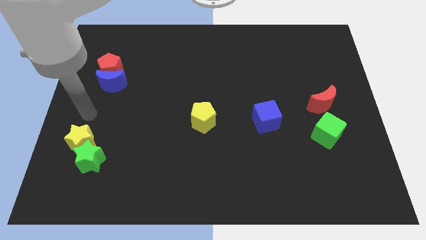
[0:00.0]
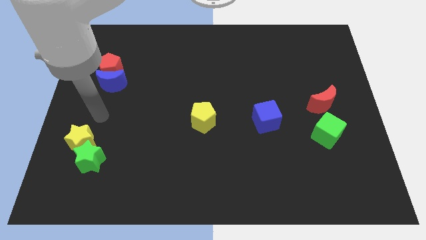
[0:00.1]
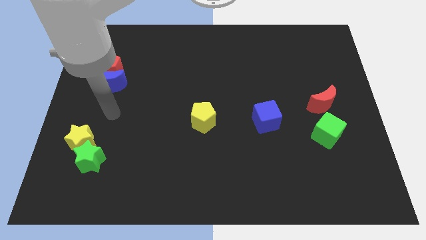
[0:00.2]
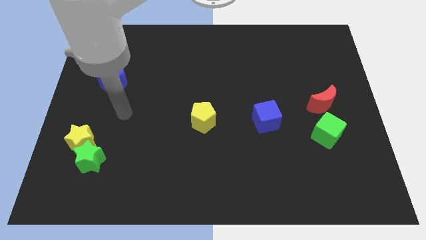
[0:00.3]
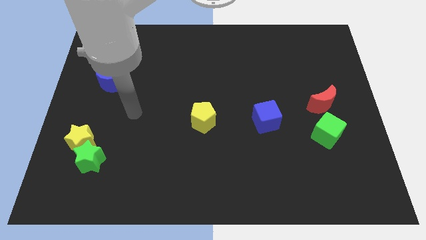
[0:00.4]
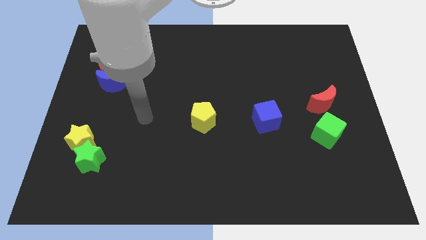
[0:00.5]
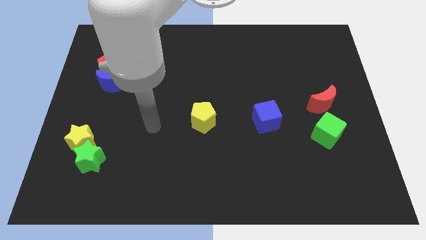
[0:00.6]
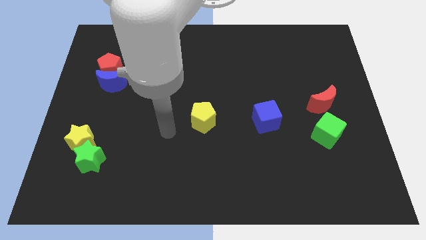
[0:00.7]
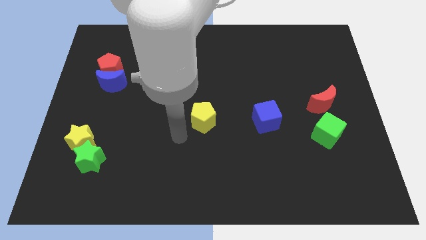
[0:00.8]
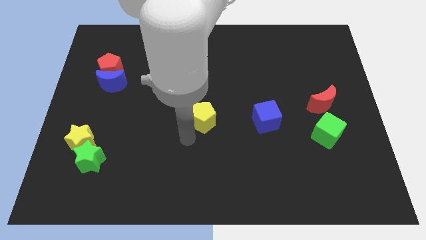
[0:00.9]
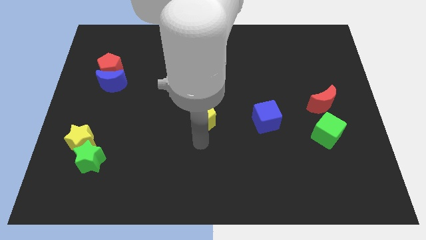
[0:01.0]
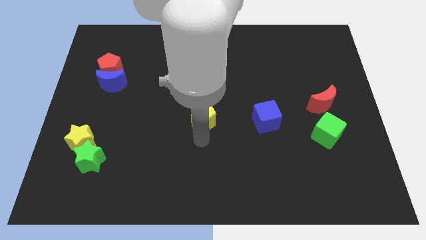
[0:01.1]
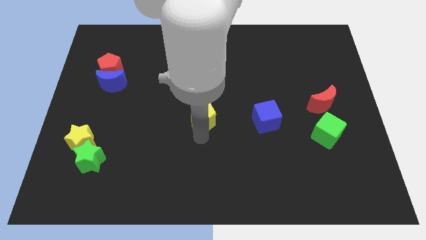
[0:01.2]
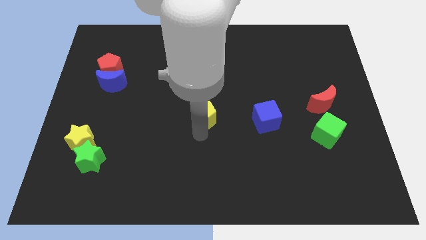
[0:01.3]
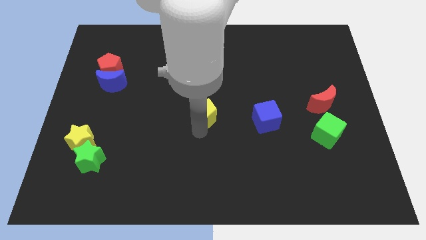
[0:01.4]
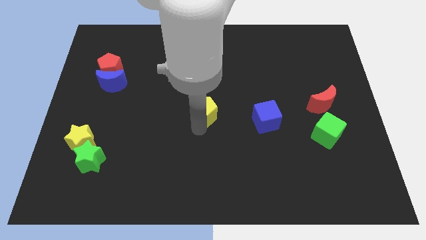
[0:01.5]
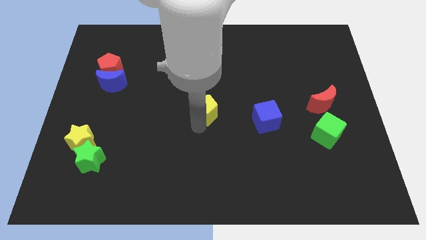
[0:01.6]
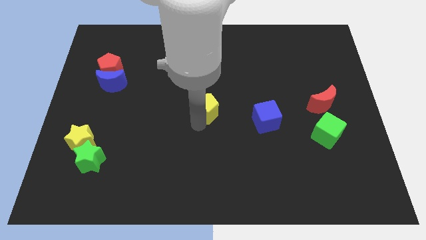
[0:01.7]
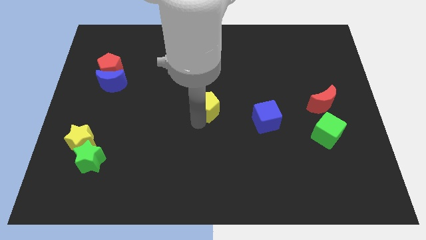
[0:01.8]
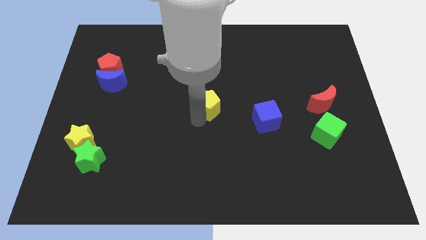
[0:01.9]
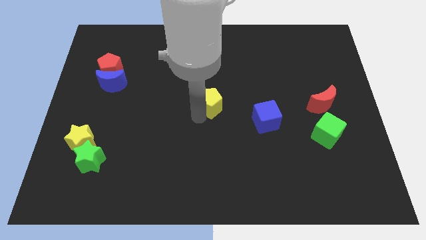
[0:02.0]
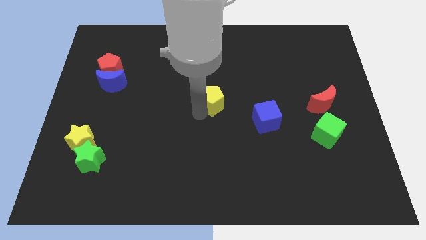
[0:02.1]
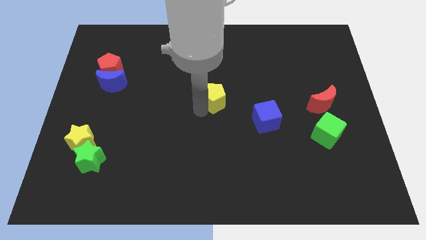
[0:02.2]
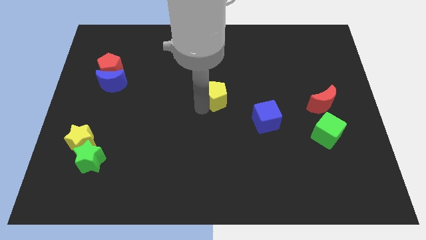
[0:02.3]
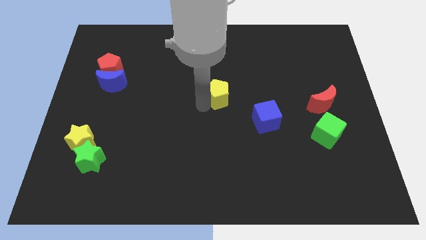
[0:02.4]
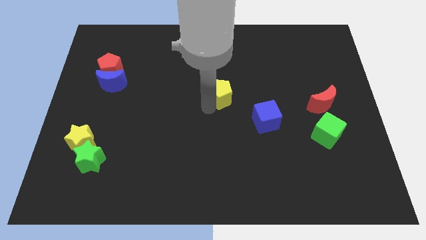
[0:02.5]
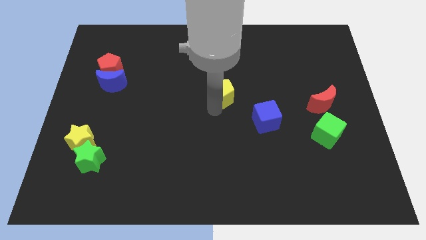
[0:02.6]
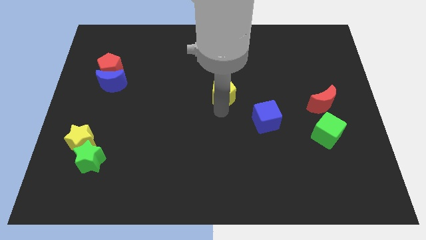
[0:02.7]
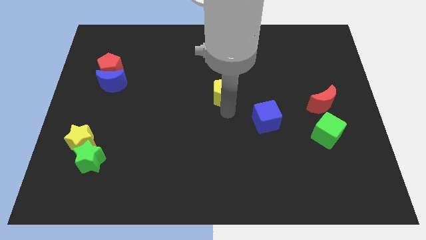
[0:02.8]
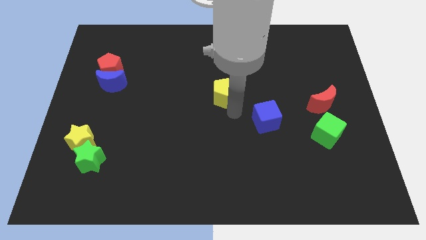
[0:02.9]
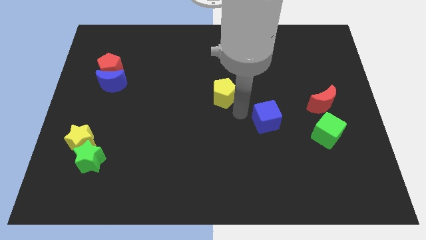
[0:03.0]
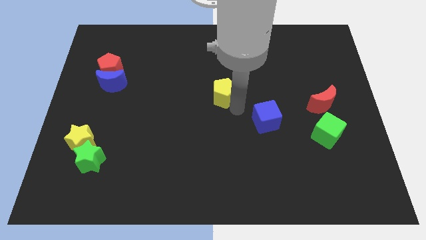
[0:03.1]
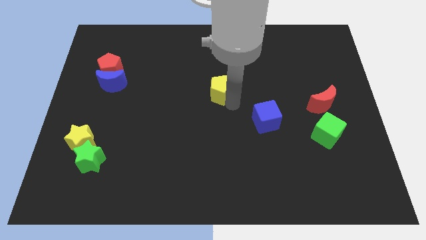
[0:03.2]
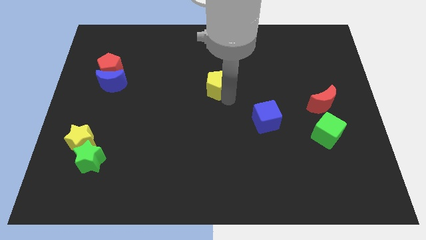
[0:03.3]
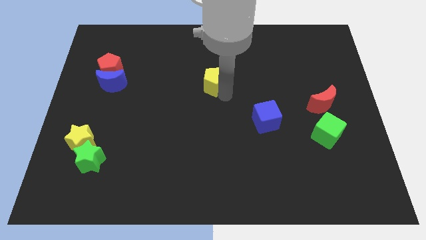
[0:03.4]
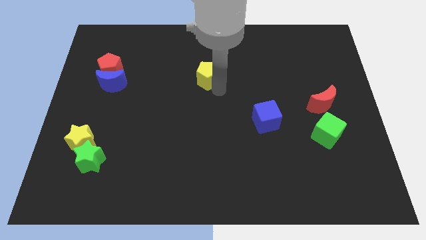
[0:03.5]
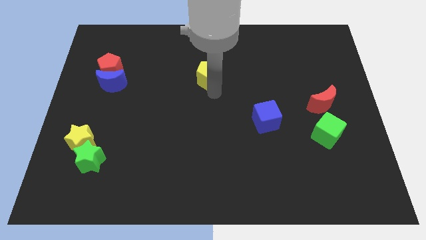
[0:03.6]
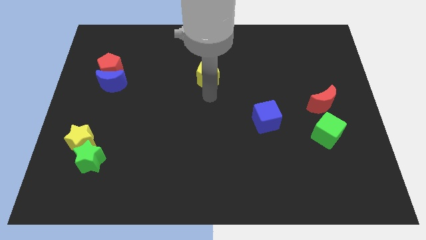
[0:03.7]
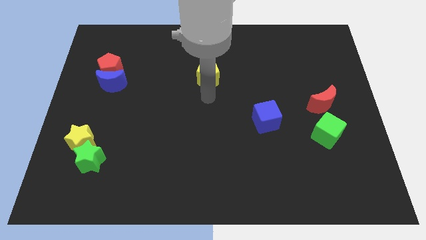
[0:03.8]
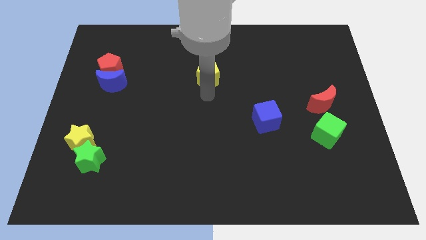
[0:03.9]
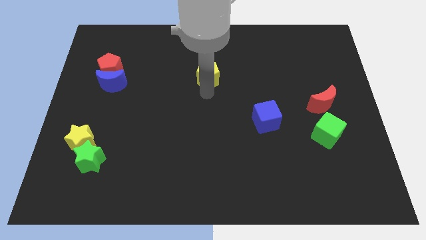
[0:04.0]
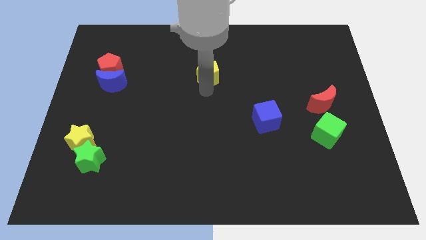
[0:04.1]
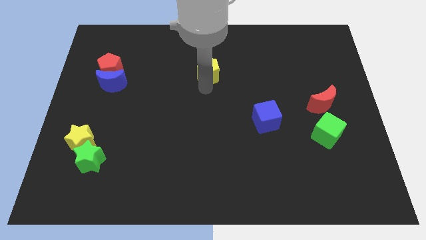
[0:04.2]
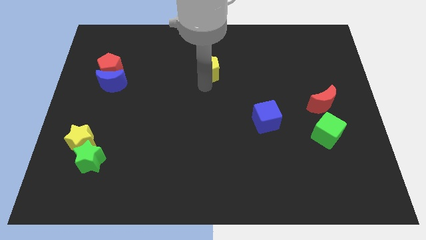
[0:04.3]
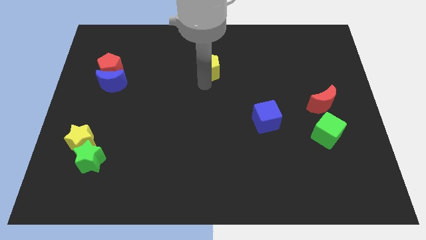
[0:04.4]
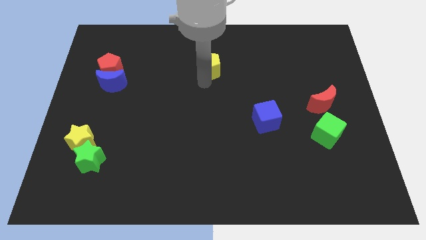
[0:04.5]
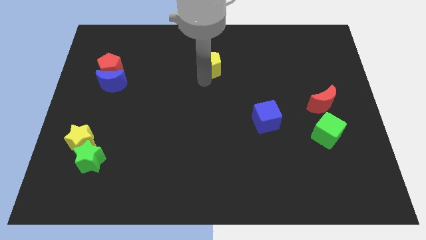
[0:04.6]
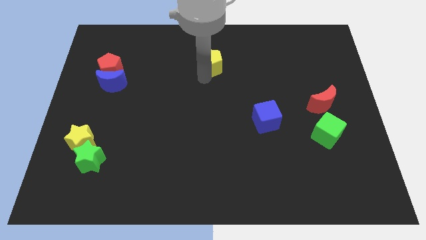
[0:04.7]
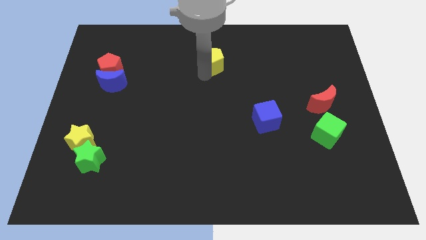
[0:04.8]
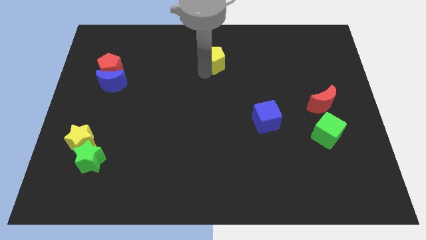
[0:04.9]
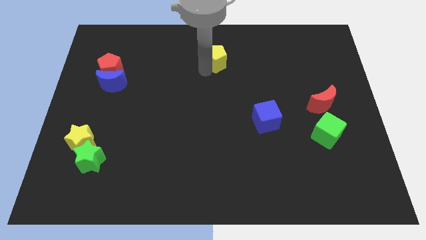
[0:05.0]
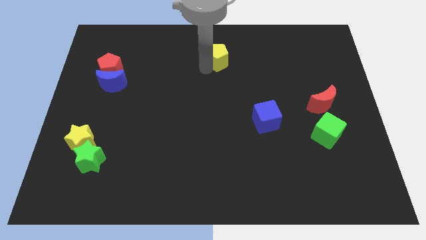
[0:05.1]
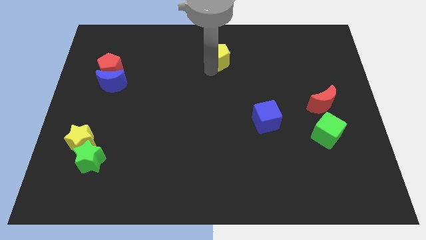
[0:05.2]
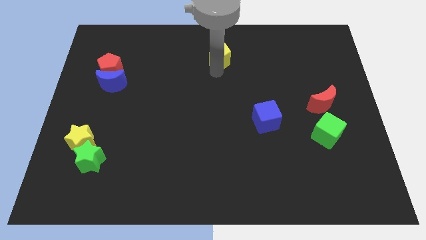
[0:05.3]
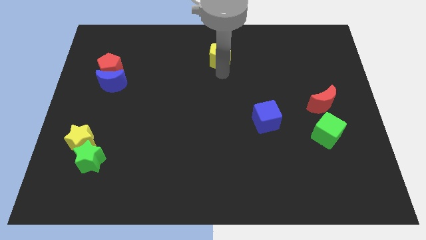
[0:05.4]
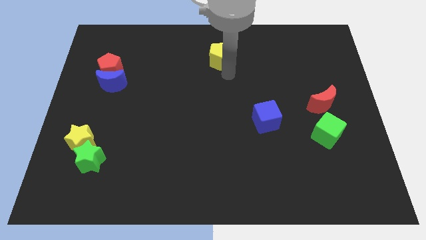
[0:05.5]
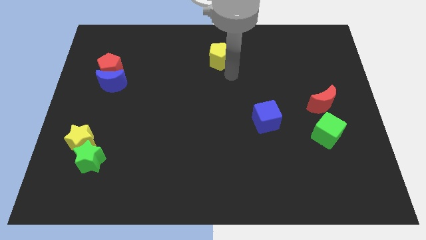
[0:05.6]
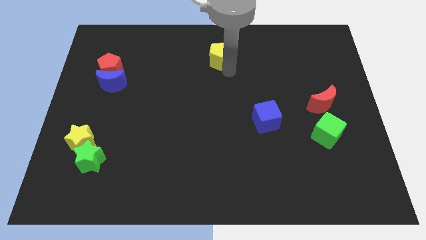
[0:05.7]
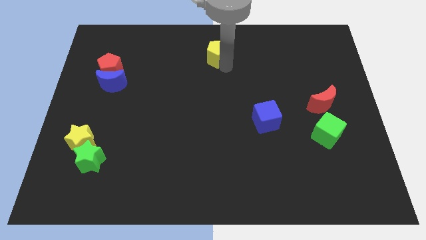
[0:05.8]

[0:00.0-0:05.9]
slide the yellow pentagon to the towards your base

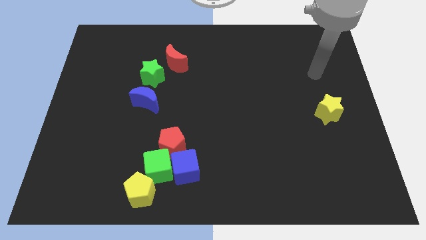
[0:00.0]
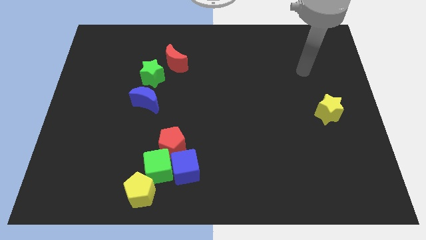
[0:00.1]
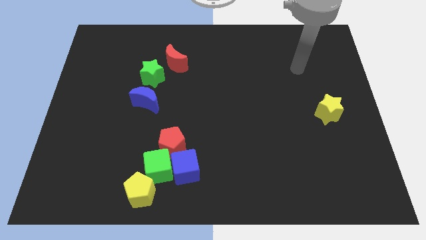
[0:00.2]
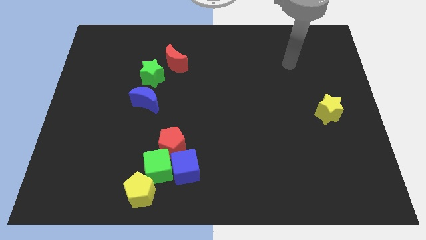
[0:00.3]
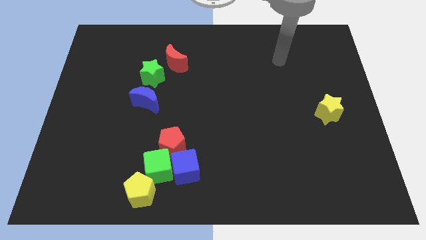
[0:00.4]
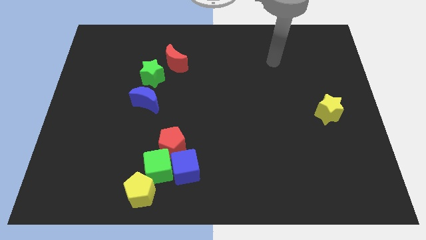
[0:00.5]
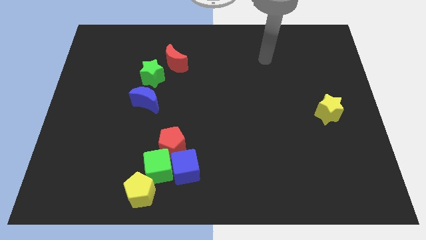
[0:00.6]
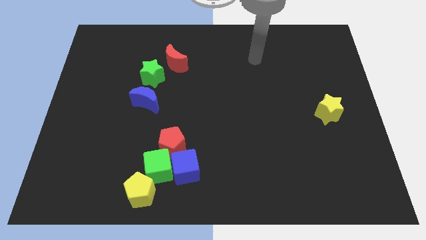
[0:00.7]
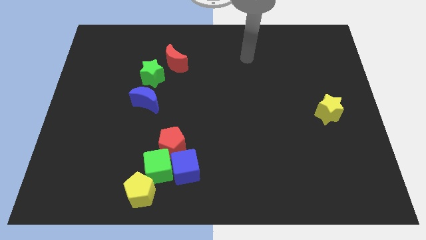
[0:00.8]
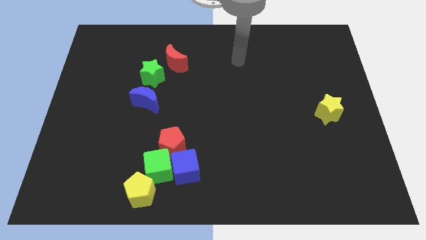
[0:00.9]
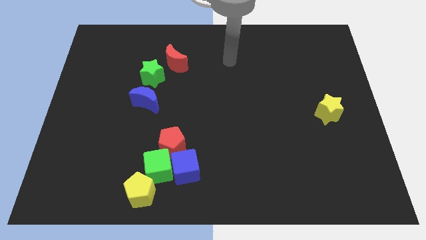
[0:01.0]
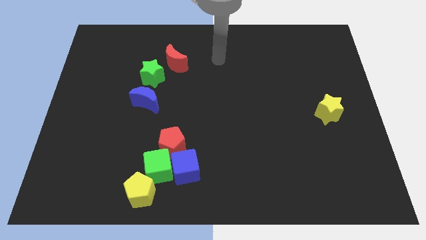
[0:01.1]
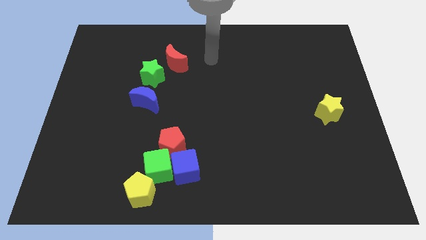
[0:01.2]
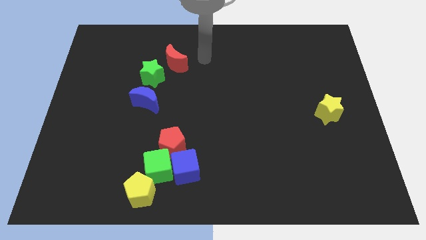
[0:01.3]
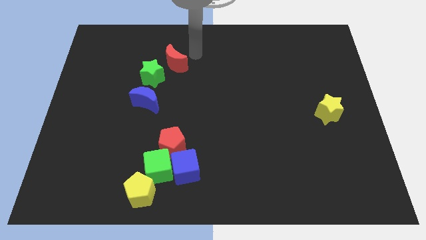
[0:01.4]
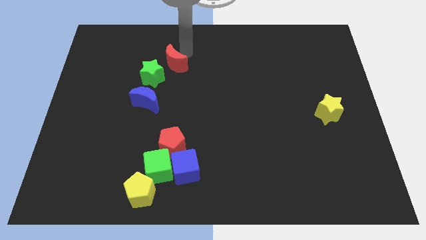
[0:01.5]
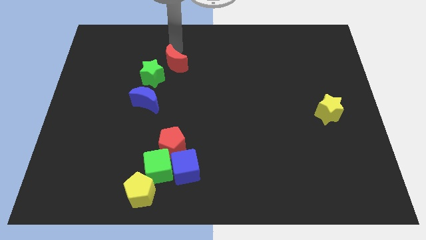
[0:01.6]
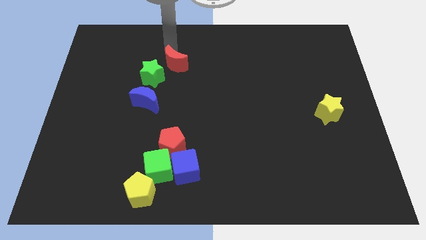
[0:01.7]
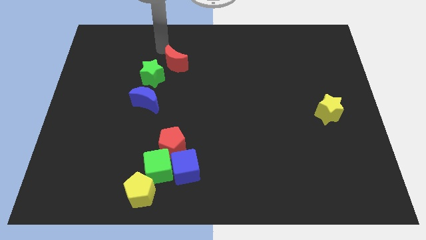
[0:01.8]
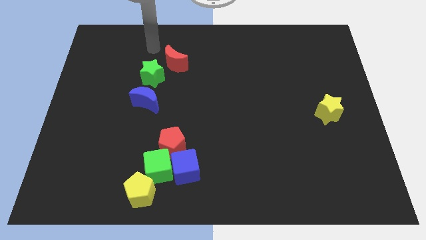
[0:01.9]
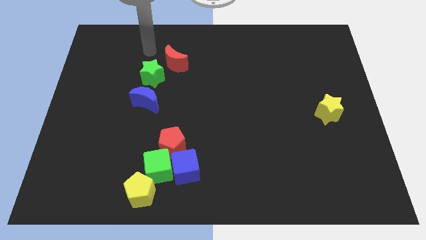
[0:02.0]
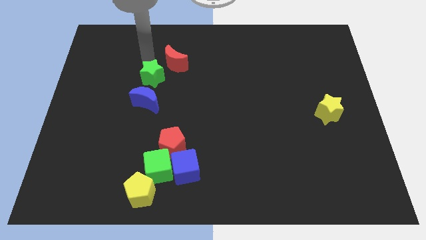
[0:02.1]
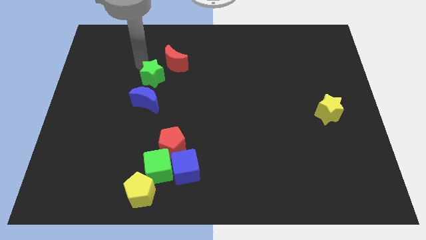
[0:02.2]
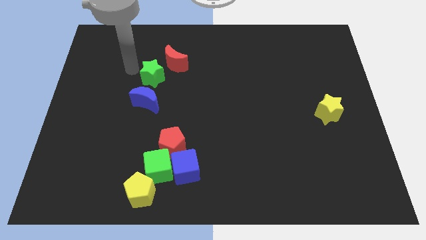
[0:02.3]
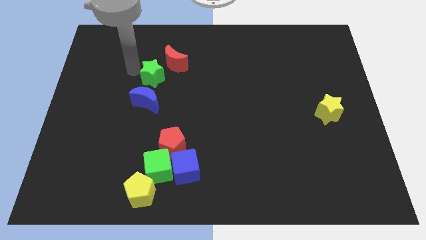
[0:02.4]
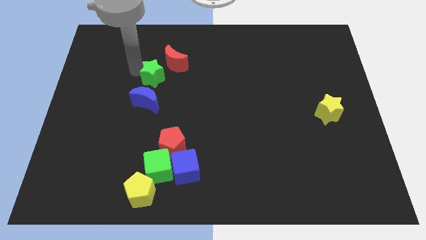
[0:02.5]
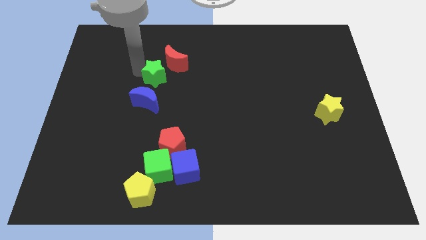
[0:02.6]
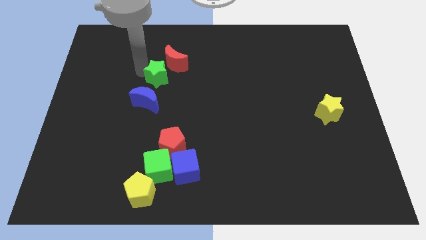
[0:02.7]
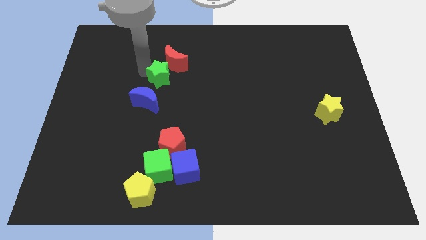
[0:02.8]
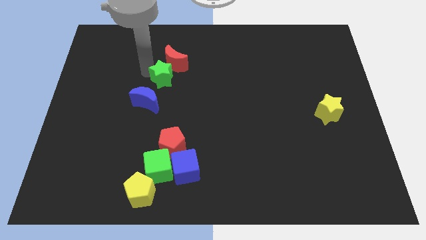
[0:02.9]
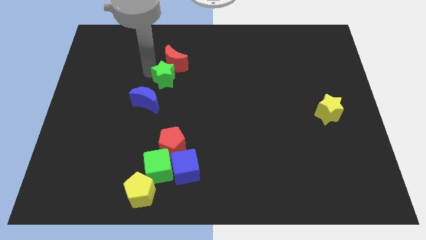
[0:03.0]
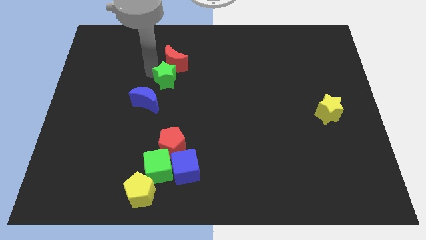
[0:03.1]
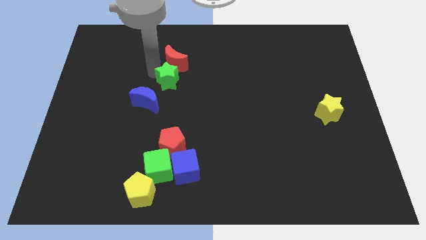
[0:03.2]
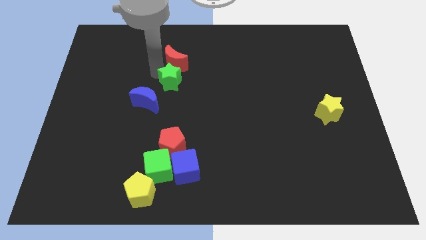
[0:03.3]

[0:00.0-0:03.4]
push the green star to the middle
